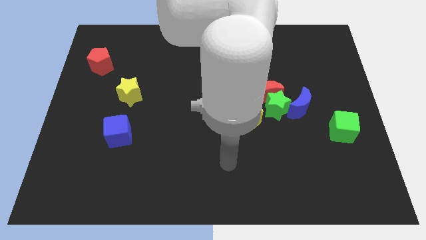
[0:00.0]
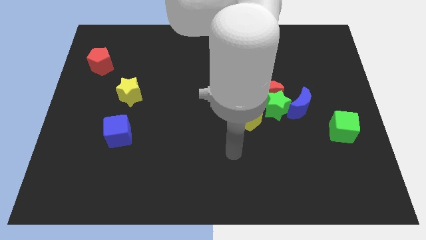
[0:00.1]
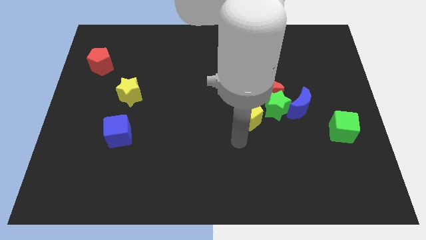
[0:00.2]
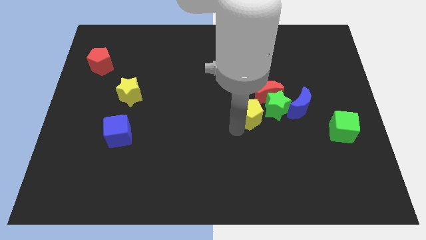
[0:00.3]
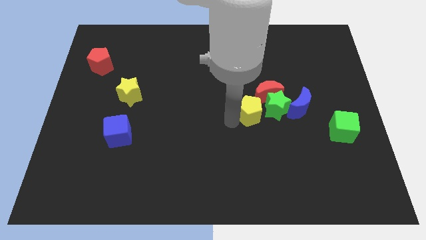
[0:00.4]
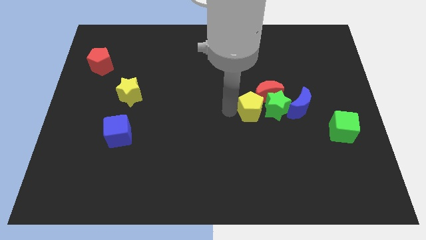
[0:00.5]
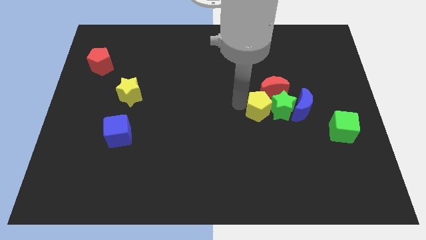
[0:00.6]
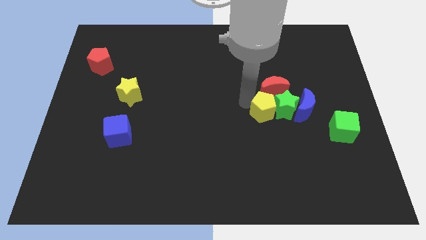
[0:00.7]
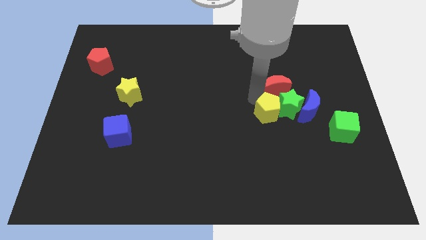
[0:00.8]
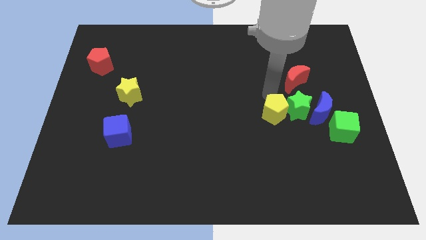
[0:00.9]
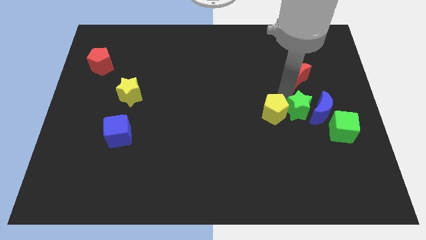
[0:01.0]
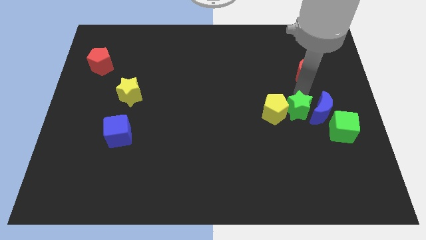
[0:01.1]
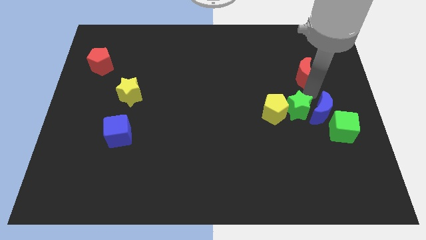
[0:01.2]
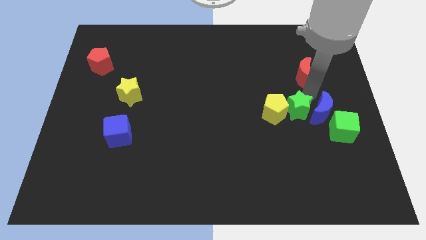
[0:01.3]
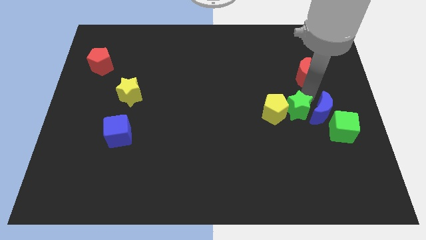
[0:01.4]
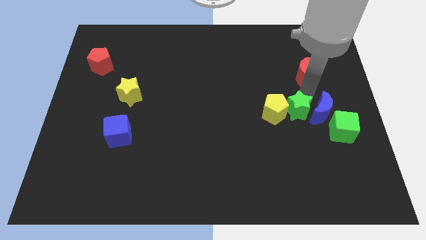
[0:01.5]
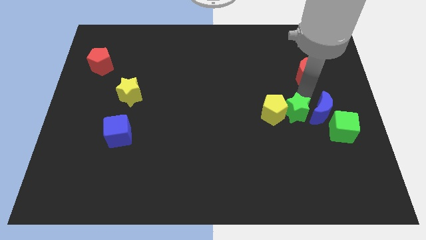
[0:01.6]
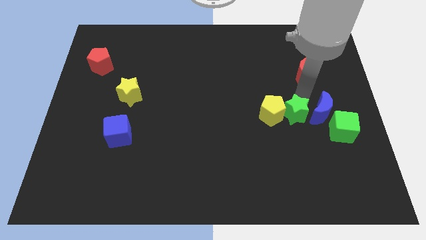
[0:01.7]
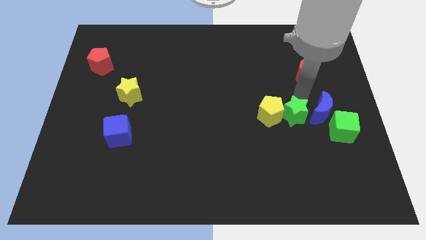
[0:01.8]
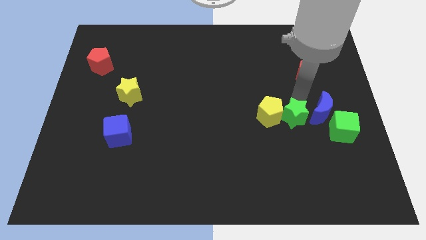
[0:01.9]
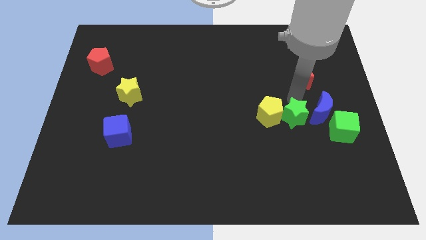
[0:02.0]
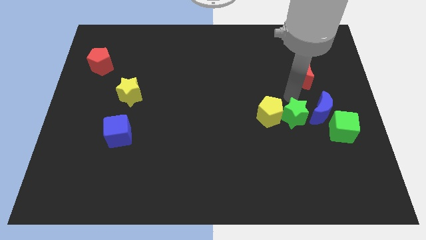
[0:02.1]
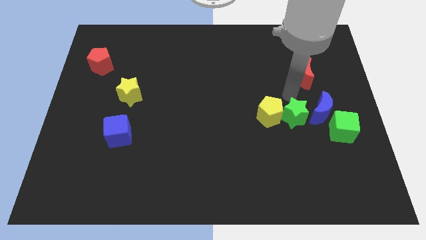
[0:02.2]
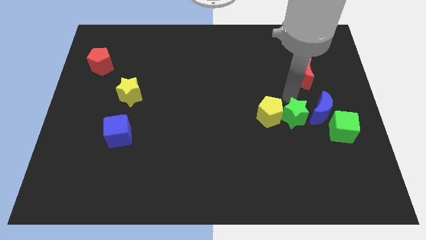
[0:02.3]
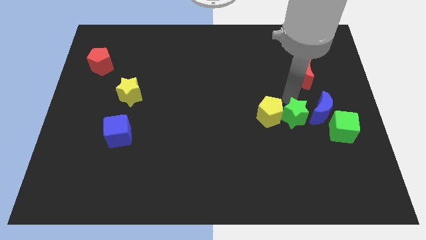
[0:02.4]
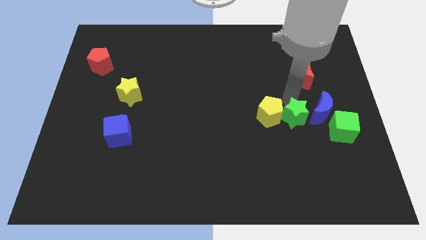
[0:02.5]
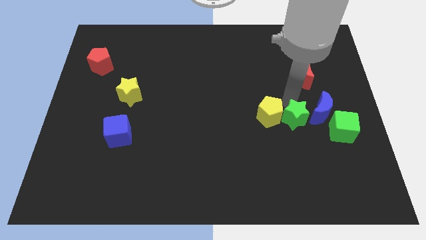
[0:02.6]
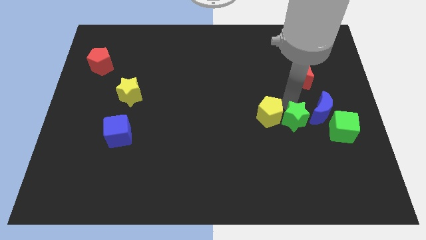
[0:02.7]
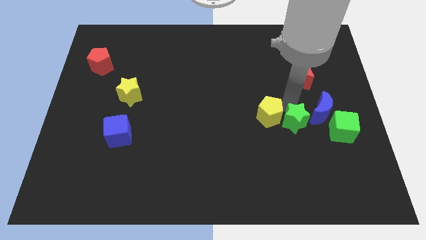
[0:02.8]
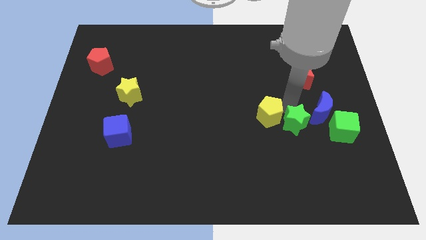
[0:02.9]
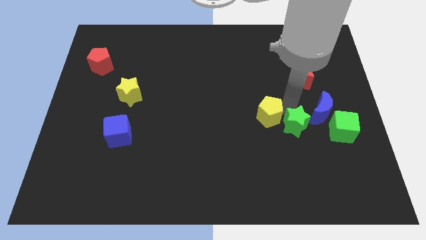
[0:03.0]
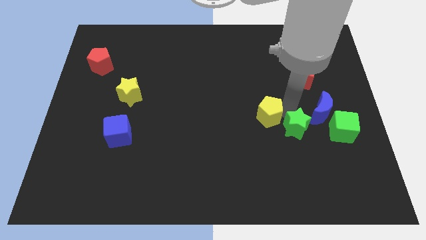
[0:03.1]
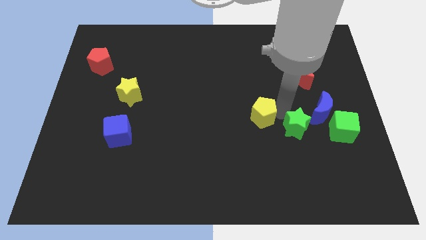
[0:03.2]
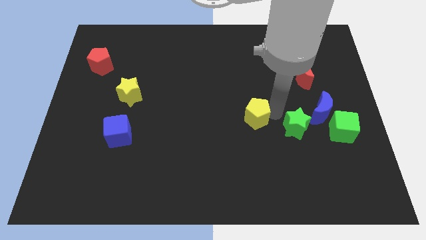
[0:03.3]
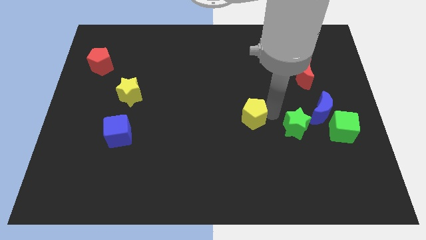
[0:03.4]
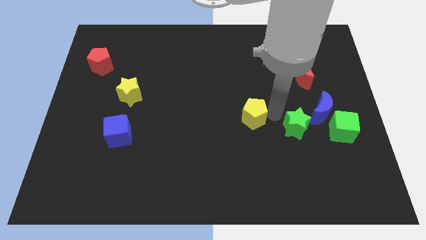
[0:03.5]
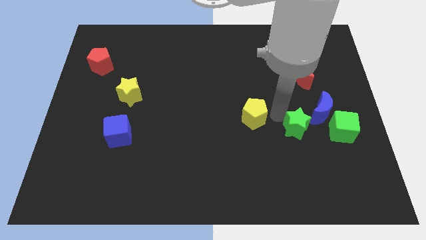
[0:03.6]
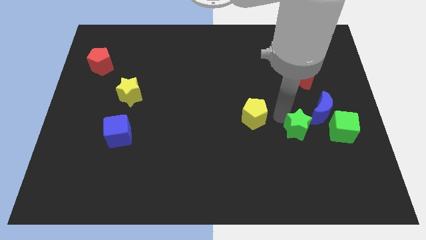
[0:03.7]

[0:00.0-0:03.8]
move the green star diagonally down and right a little

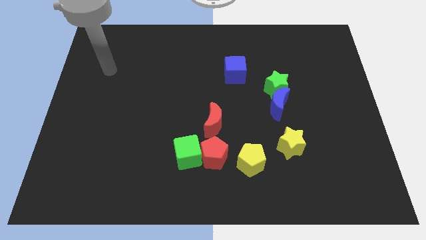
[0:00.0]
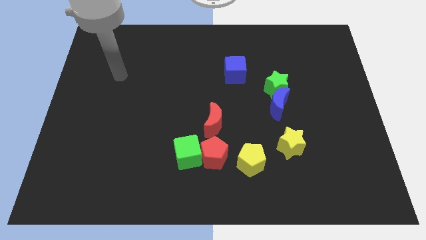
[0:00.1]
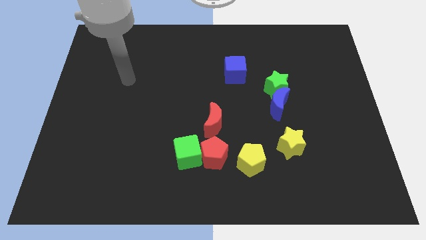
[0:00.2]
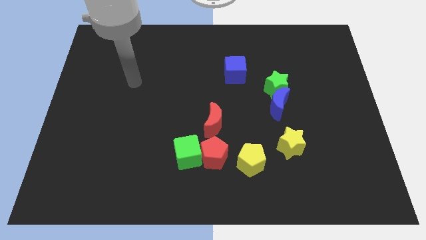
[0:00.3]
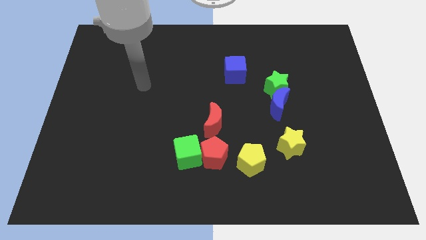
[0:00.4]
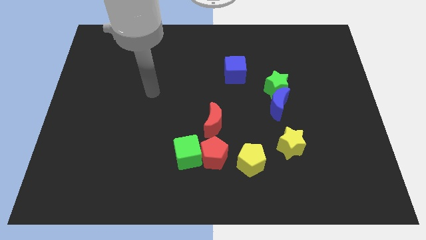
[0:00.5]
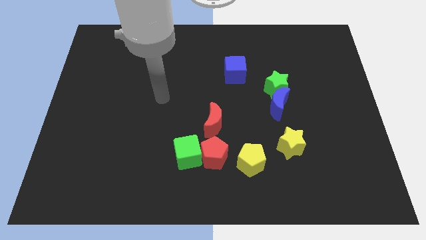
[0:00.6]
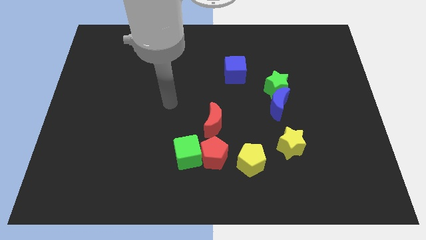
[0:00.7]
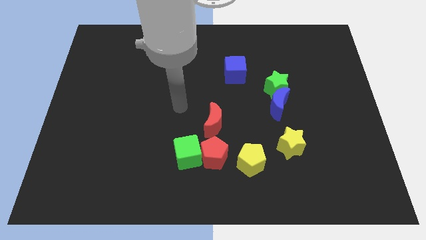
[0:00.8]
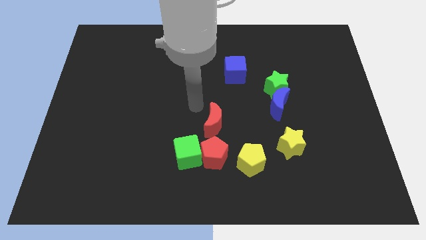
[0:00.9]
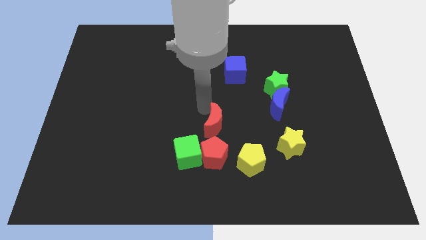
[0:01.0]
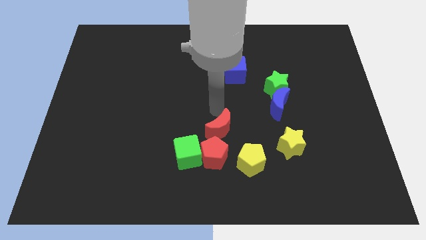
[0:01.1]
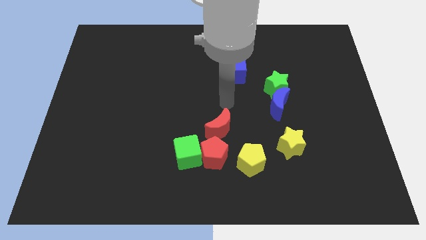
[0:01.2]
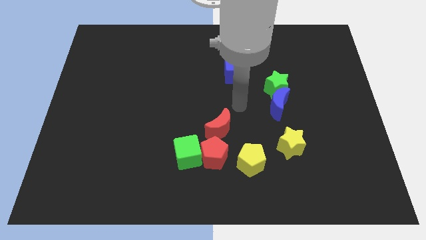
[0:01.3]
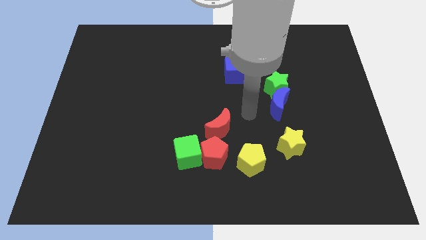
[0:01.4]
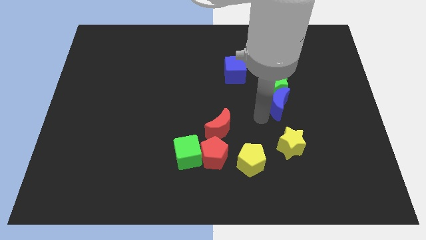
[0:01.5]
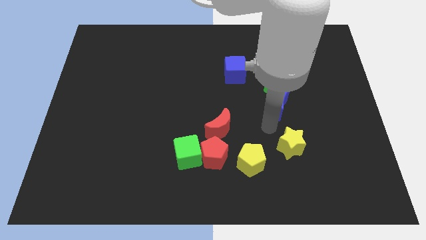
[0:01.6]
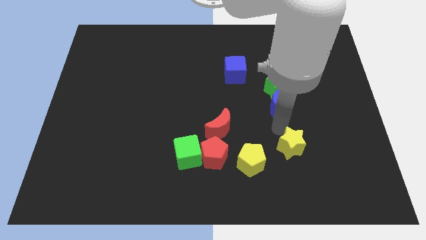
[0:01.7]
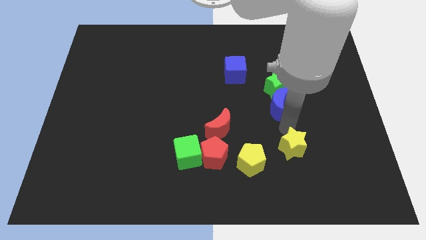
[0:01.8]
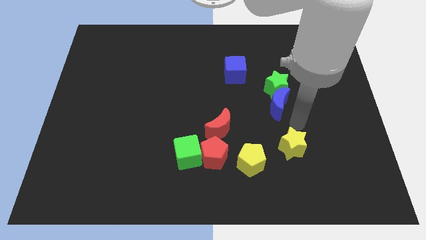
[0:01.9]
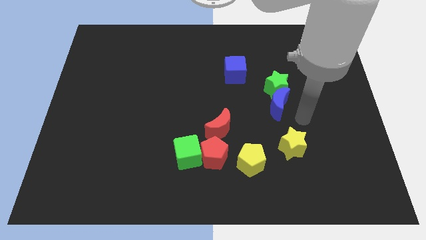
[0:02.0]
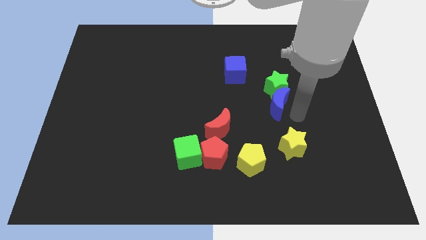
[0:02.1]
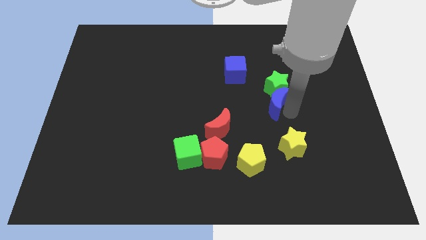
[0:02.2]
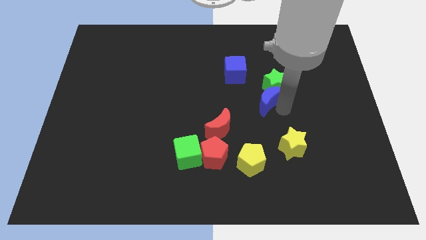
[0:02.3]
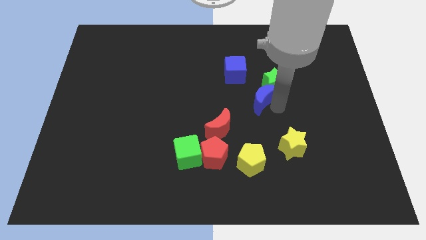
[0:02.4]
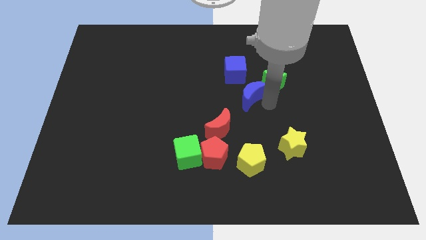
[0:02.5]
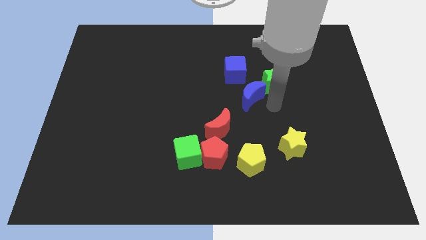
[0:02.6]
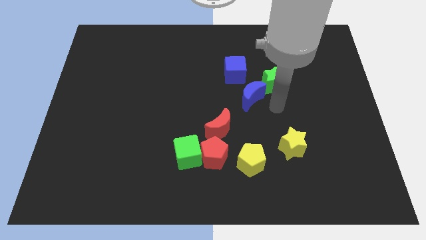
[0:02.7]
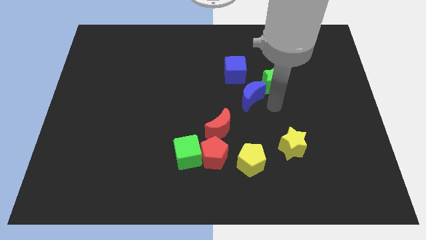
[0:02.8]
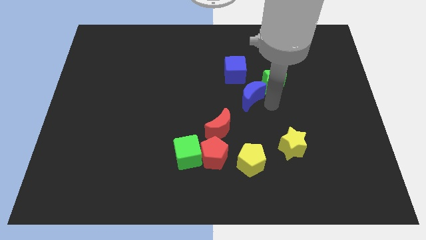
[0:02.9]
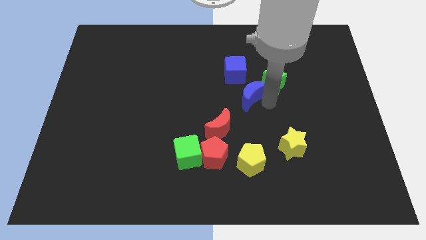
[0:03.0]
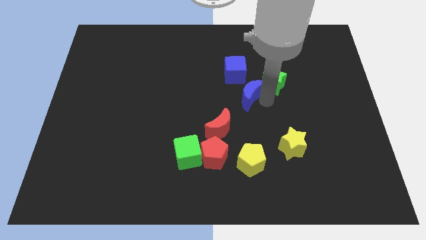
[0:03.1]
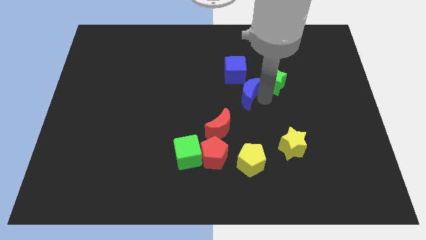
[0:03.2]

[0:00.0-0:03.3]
push the blue moon slightly diagonally up and to the left

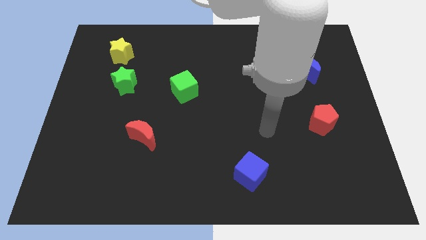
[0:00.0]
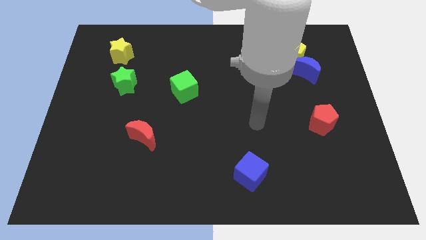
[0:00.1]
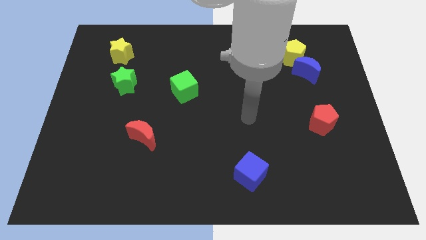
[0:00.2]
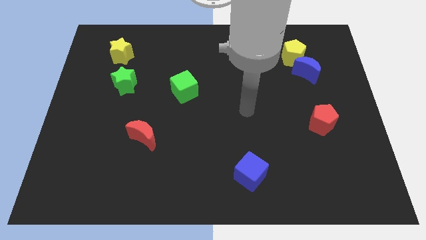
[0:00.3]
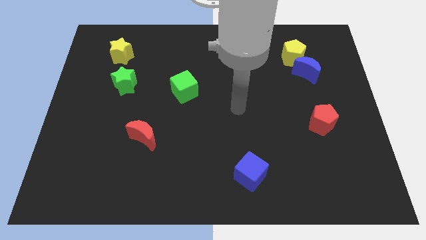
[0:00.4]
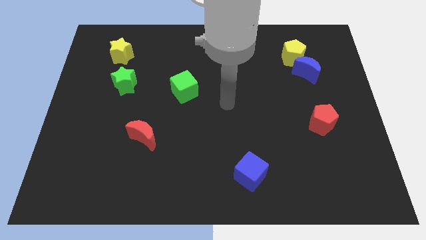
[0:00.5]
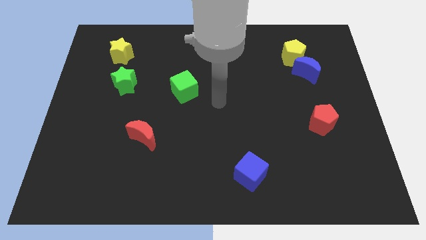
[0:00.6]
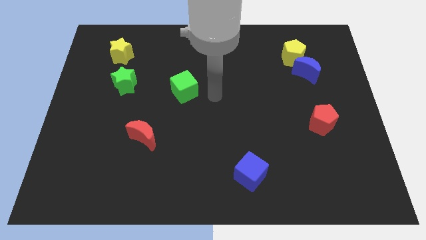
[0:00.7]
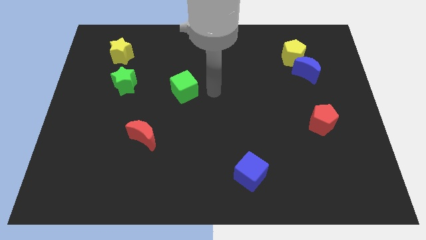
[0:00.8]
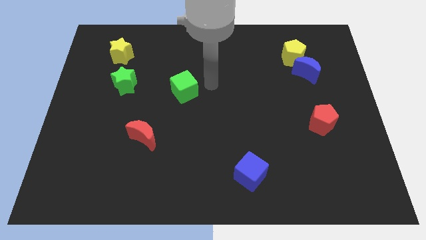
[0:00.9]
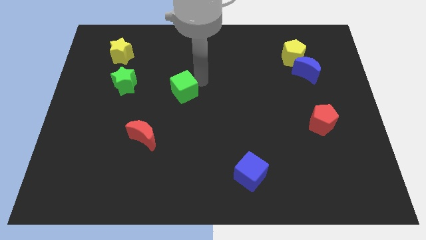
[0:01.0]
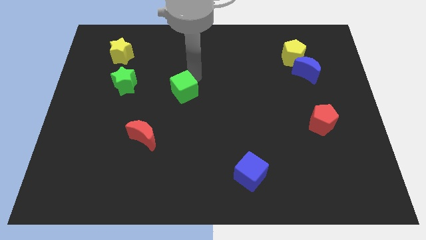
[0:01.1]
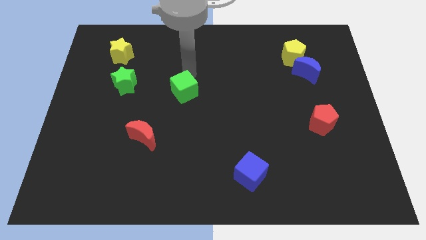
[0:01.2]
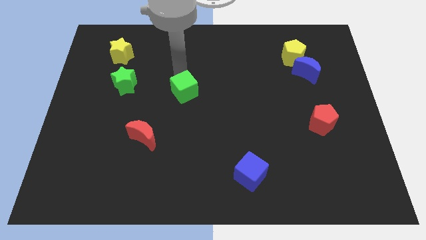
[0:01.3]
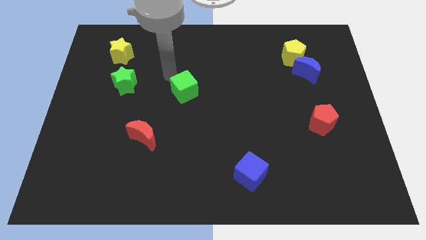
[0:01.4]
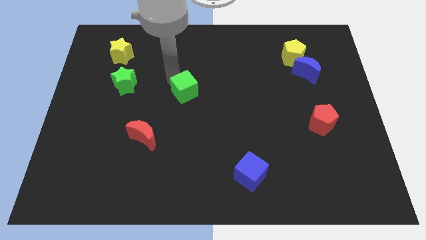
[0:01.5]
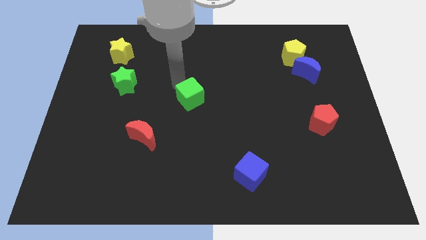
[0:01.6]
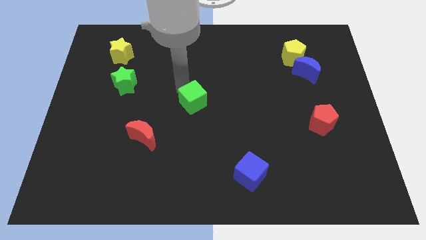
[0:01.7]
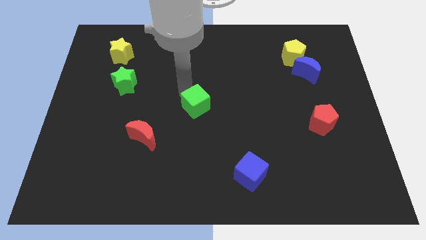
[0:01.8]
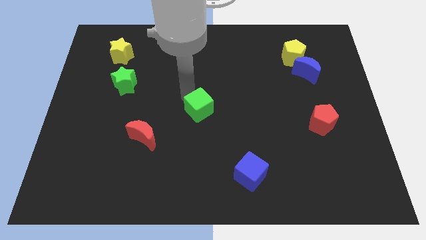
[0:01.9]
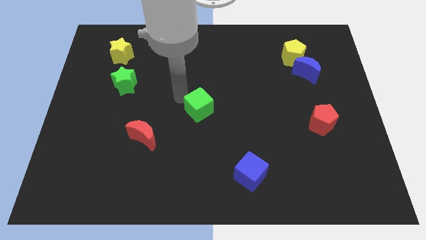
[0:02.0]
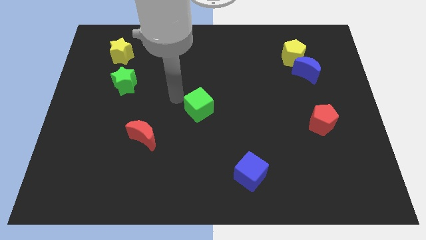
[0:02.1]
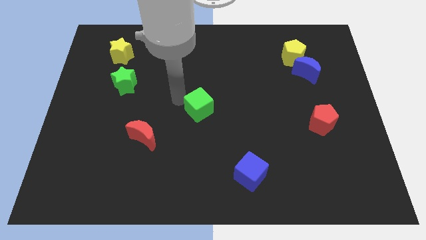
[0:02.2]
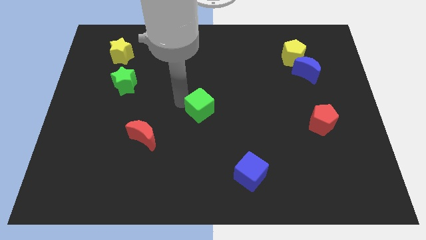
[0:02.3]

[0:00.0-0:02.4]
push the green cube down and then to the right somewhat
